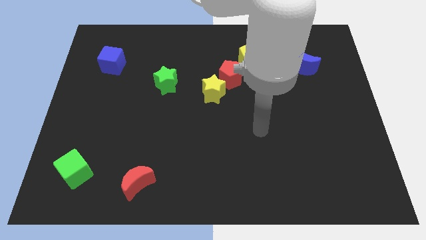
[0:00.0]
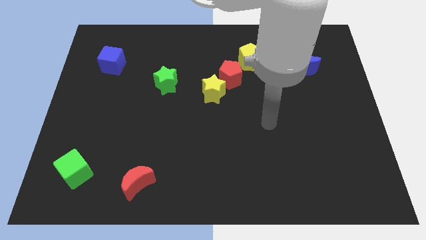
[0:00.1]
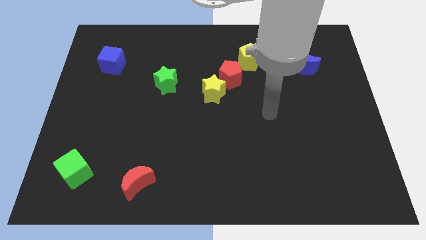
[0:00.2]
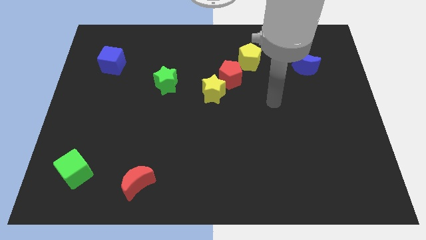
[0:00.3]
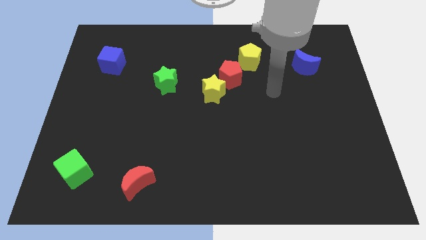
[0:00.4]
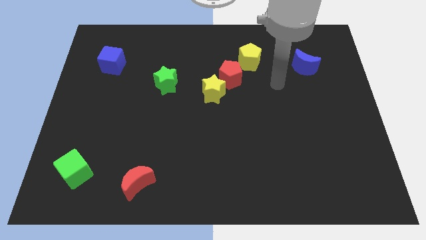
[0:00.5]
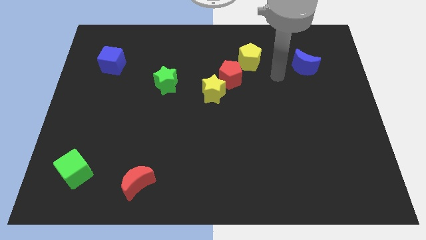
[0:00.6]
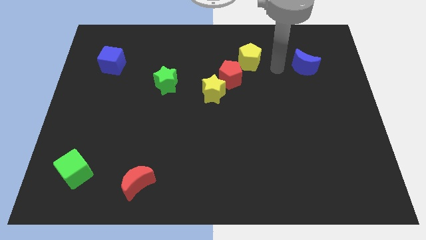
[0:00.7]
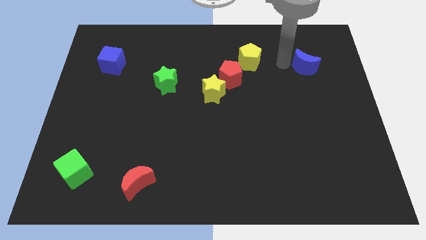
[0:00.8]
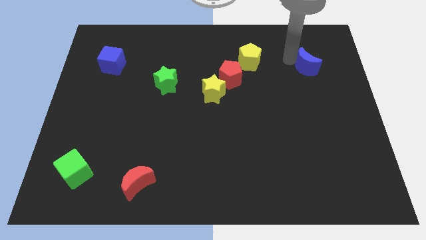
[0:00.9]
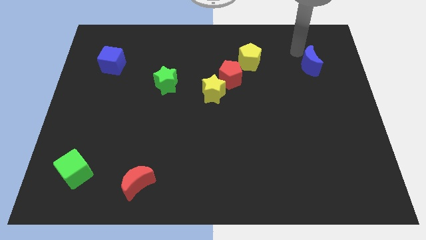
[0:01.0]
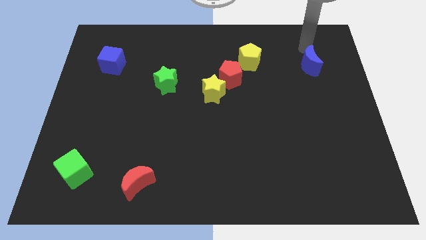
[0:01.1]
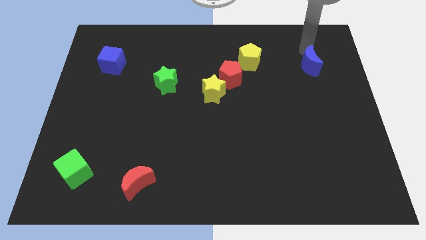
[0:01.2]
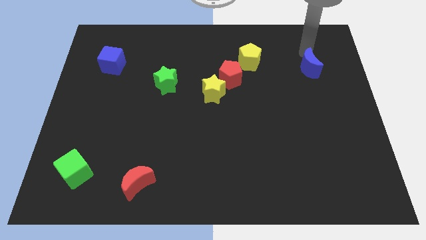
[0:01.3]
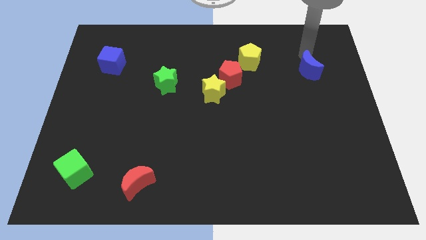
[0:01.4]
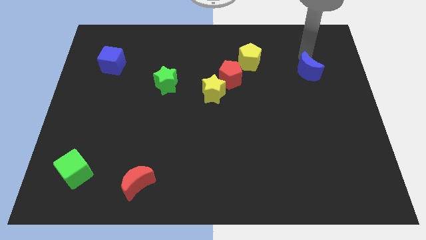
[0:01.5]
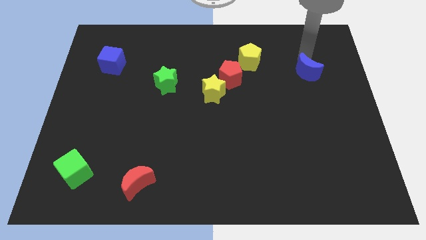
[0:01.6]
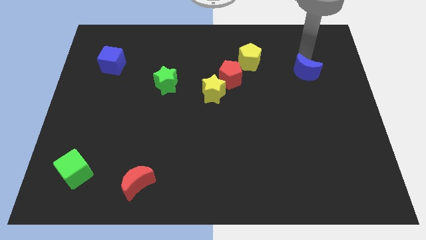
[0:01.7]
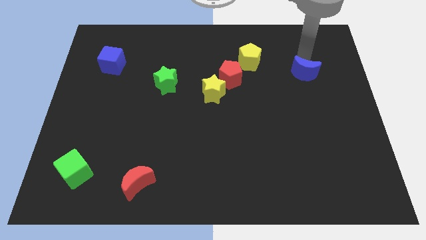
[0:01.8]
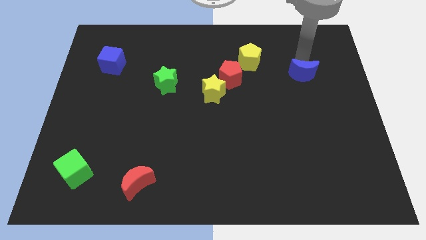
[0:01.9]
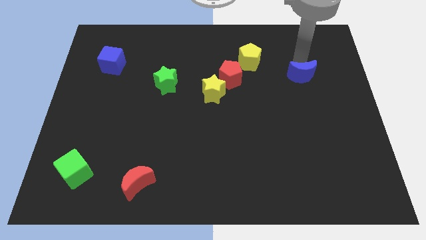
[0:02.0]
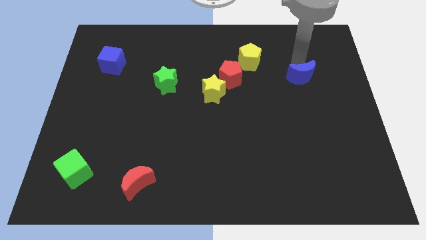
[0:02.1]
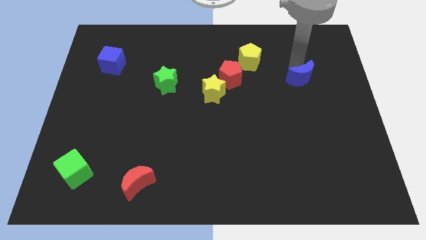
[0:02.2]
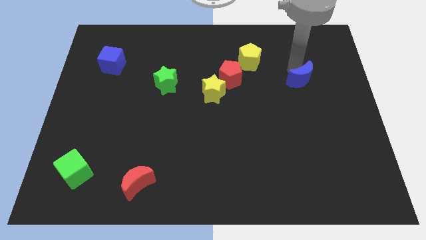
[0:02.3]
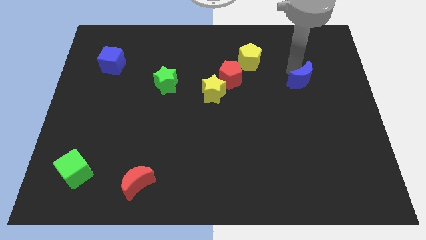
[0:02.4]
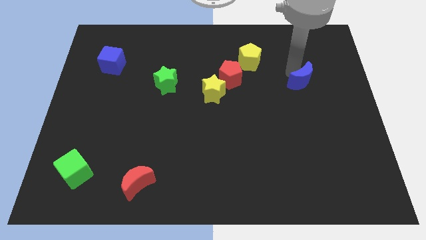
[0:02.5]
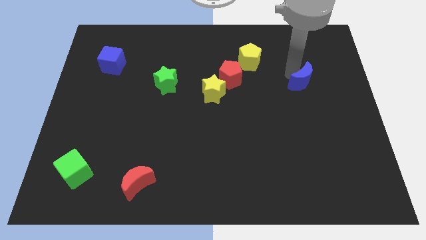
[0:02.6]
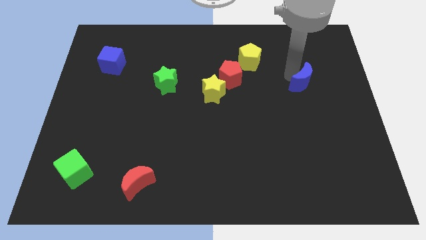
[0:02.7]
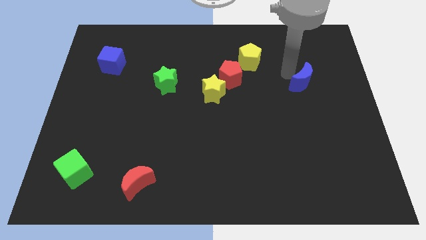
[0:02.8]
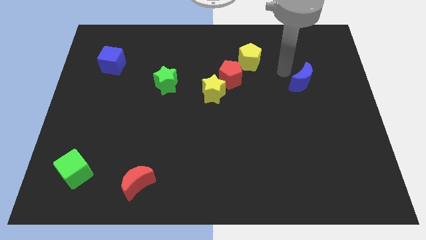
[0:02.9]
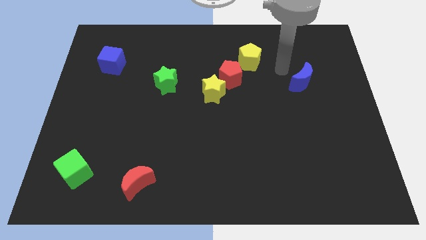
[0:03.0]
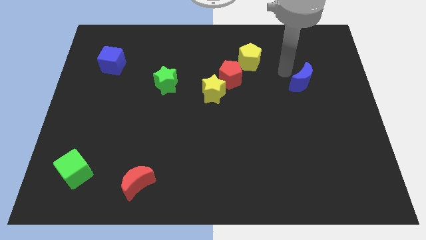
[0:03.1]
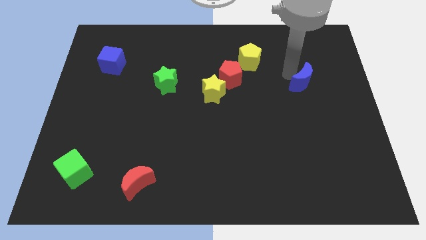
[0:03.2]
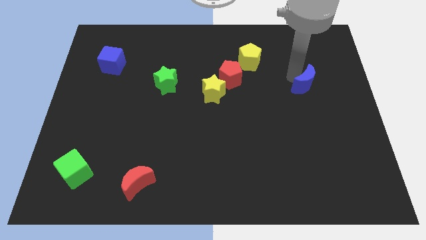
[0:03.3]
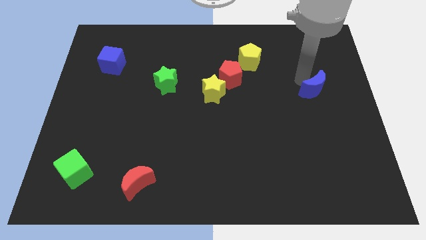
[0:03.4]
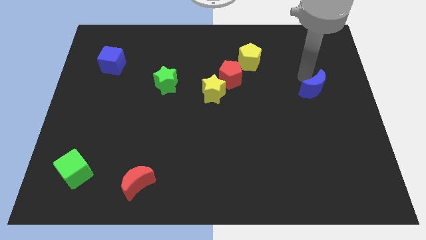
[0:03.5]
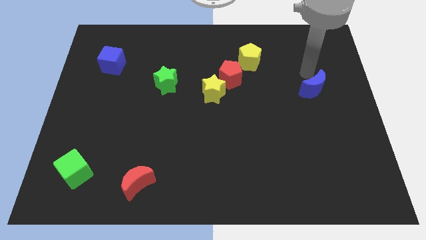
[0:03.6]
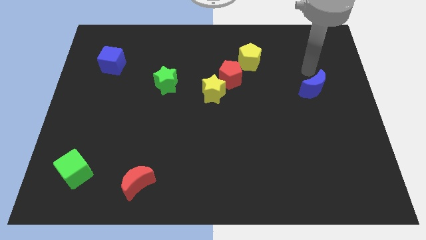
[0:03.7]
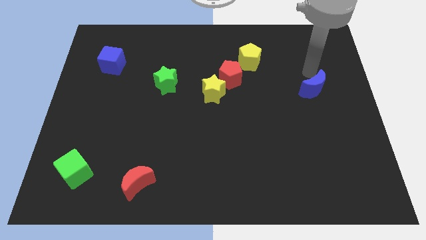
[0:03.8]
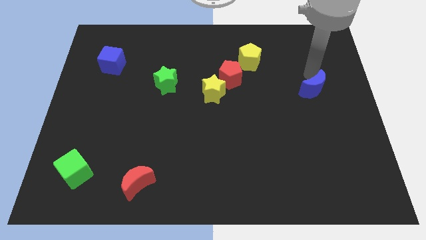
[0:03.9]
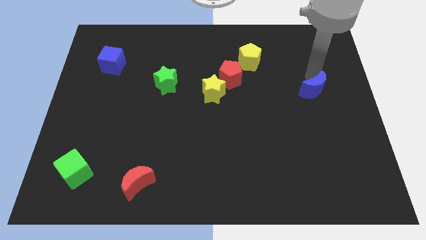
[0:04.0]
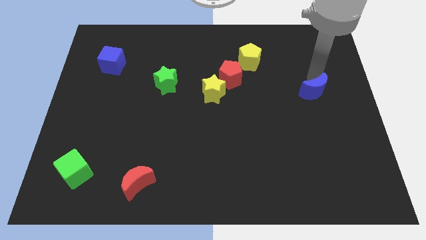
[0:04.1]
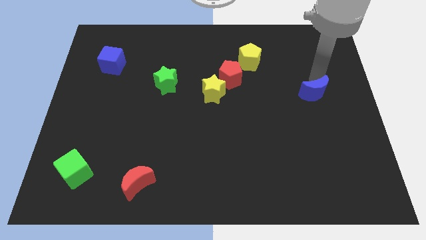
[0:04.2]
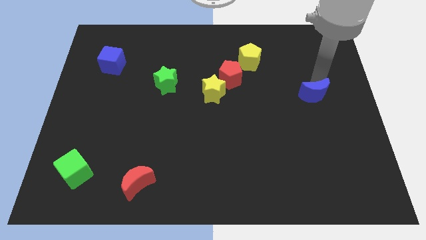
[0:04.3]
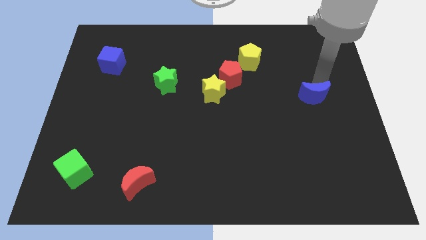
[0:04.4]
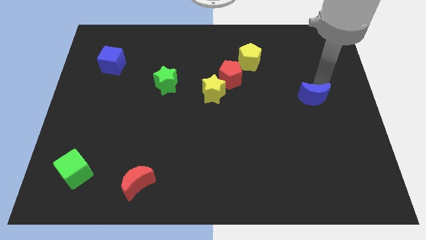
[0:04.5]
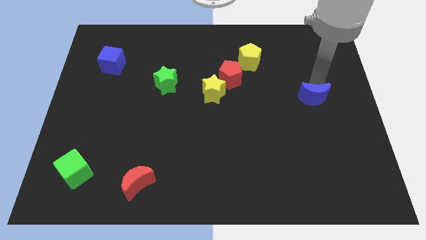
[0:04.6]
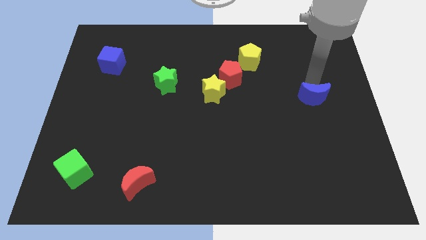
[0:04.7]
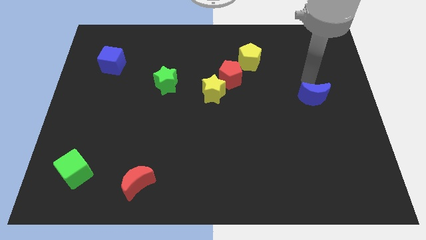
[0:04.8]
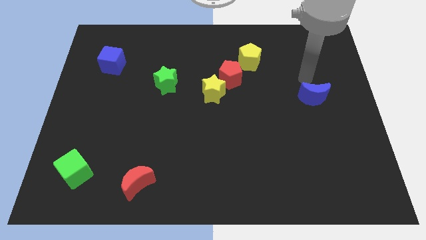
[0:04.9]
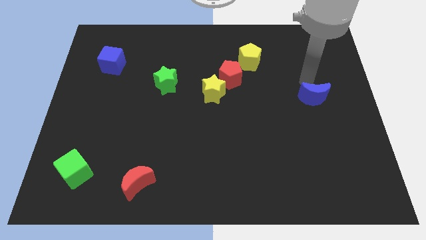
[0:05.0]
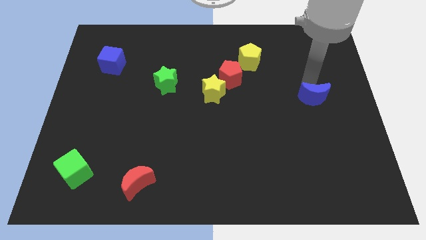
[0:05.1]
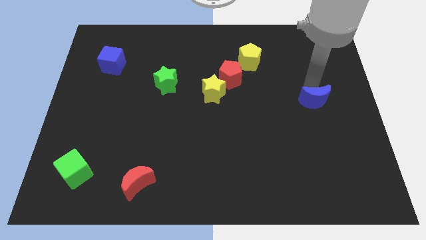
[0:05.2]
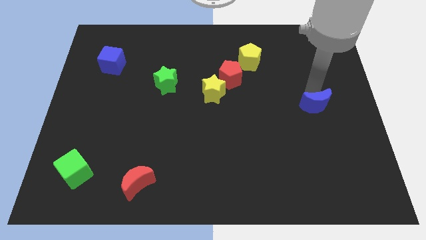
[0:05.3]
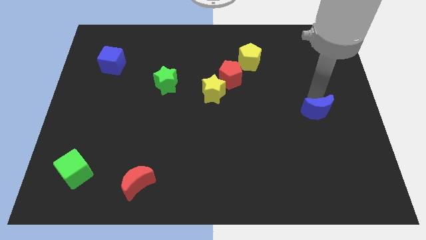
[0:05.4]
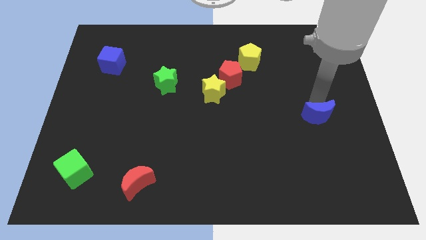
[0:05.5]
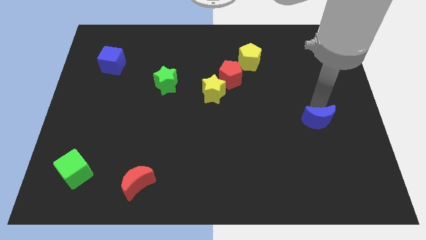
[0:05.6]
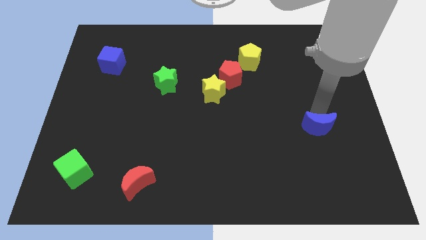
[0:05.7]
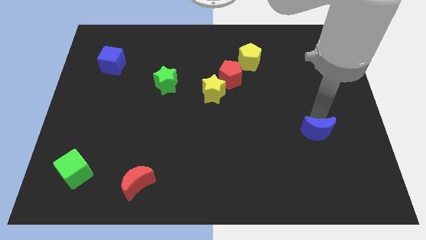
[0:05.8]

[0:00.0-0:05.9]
push the blue moon downwards

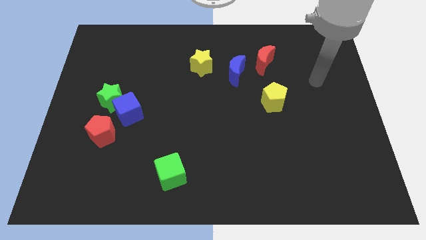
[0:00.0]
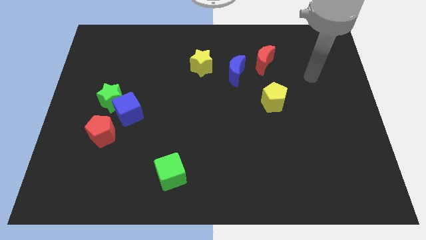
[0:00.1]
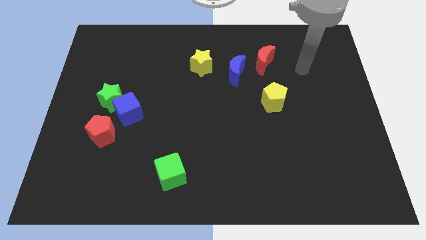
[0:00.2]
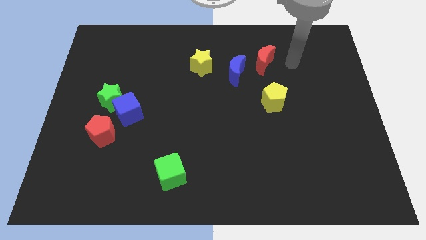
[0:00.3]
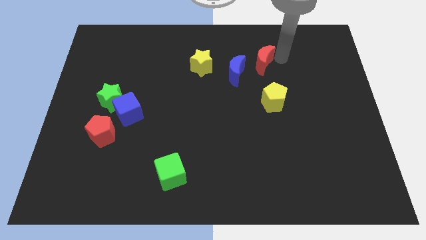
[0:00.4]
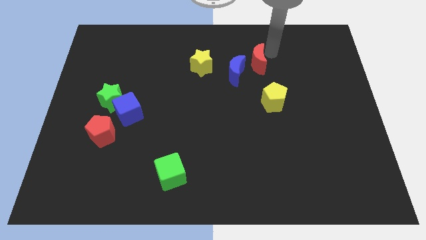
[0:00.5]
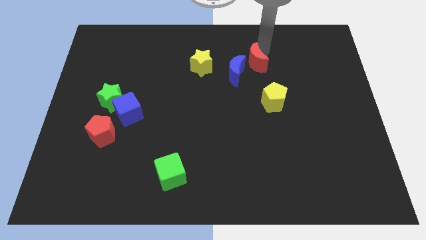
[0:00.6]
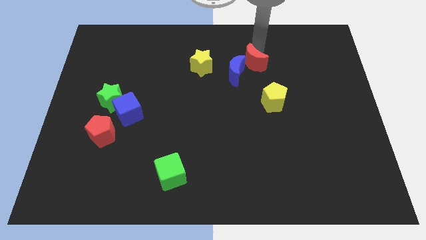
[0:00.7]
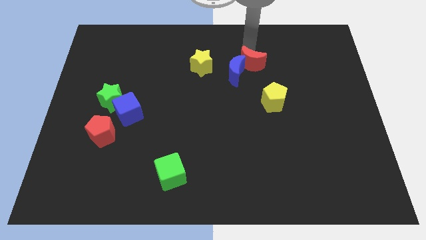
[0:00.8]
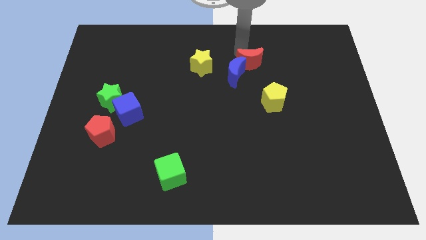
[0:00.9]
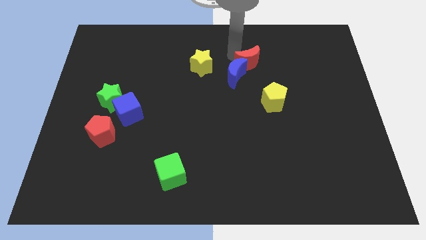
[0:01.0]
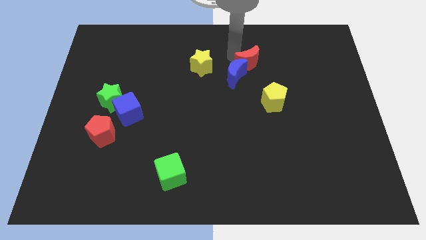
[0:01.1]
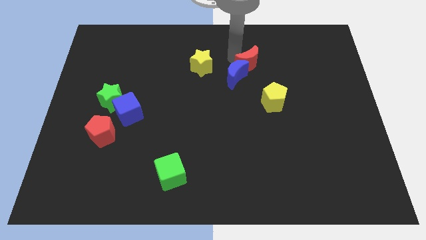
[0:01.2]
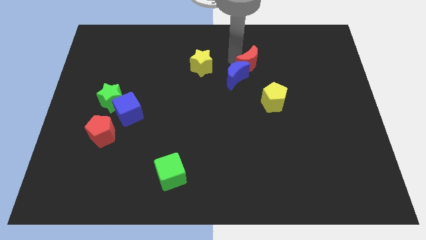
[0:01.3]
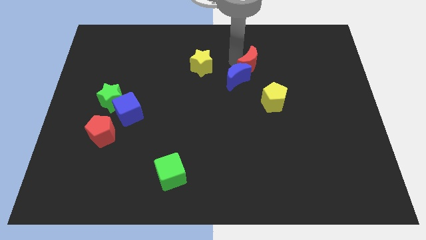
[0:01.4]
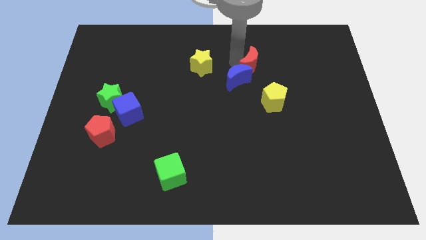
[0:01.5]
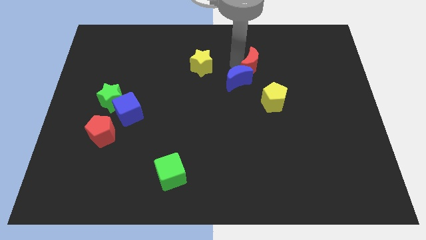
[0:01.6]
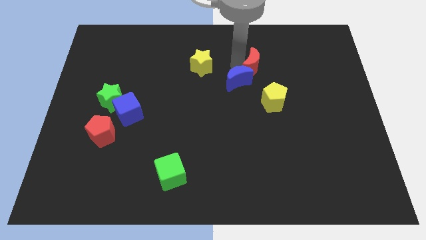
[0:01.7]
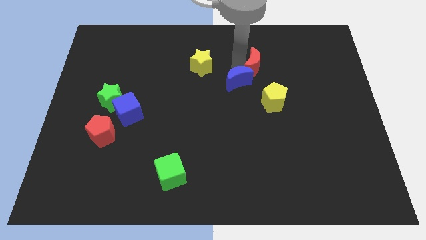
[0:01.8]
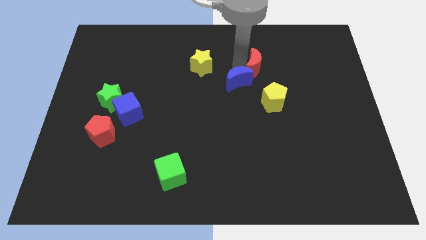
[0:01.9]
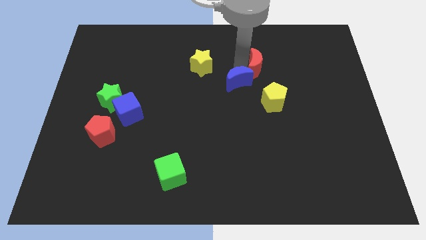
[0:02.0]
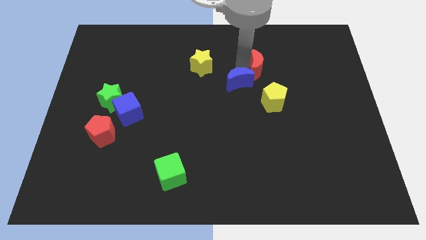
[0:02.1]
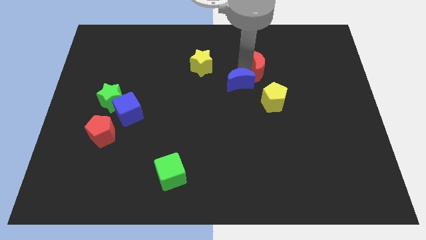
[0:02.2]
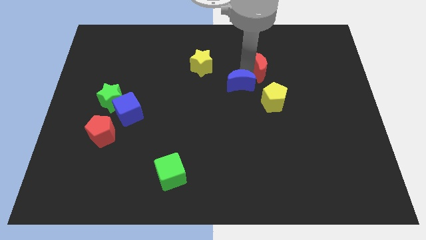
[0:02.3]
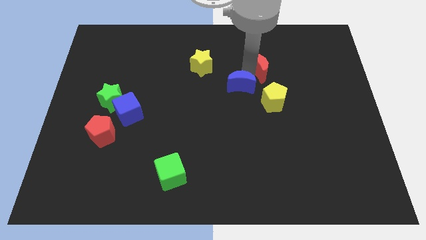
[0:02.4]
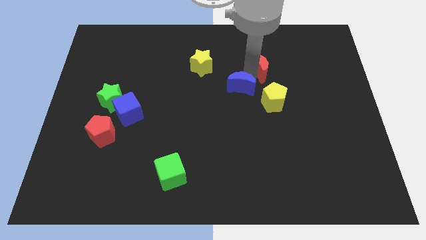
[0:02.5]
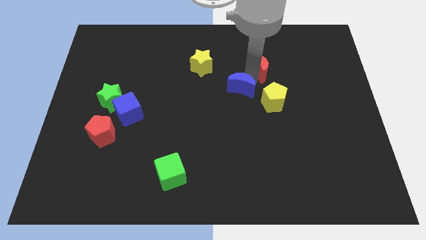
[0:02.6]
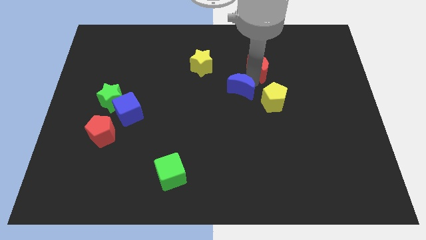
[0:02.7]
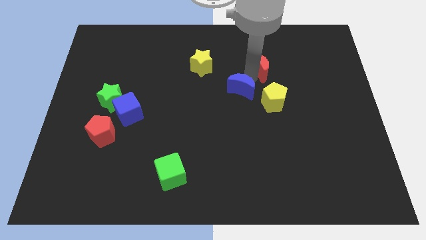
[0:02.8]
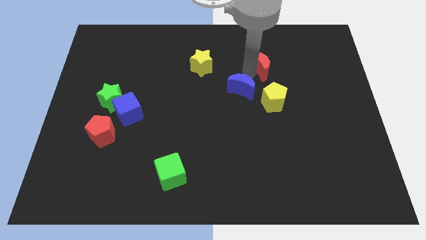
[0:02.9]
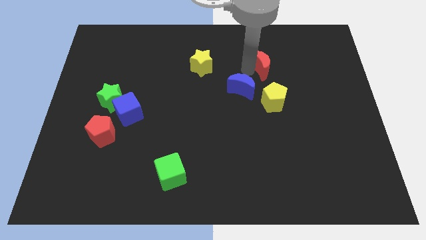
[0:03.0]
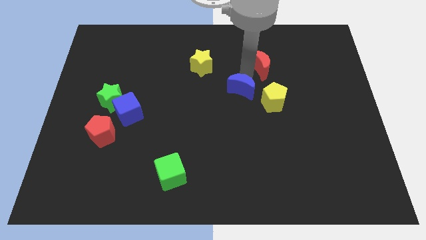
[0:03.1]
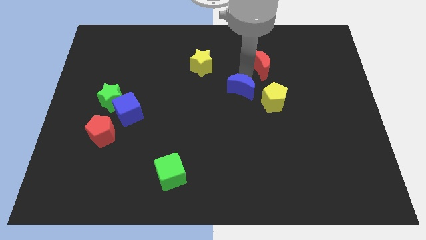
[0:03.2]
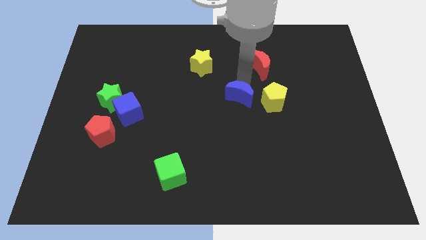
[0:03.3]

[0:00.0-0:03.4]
push the blue moon down a bit
